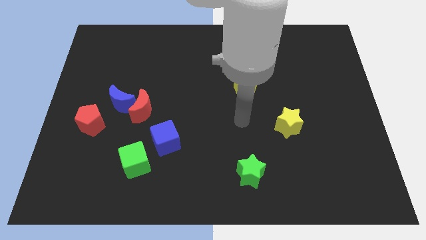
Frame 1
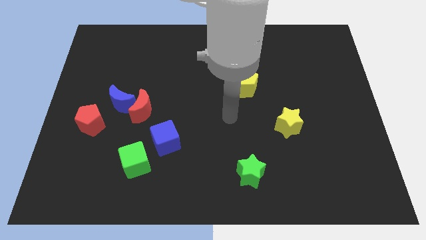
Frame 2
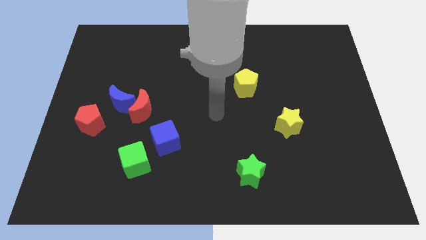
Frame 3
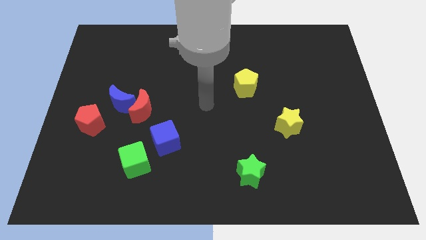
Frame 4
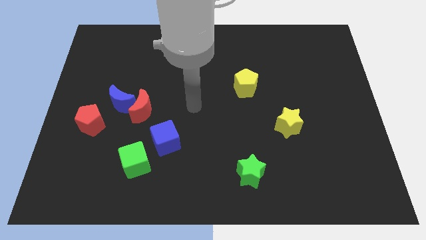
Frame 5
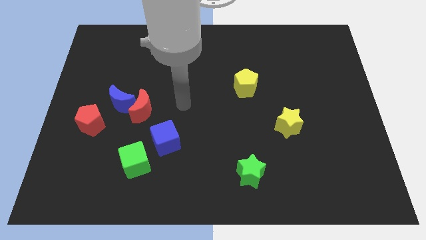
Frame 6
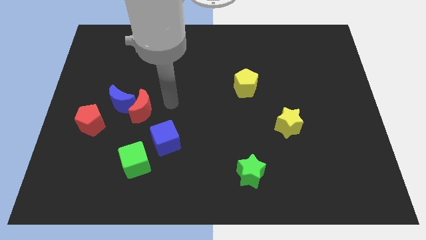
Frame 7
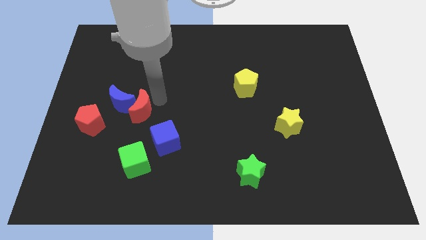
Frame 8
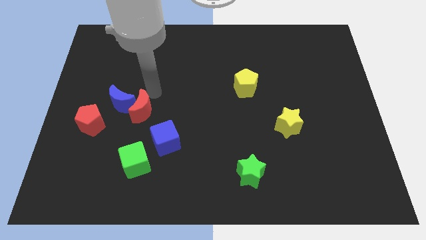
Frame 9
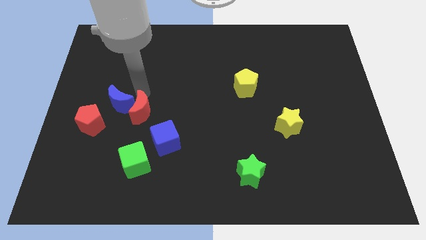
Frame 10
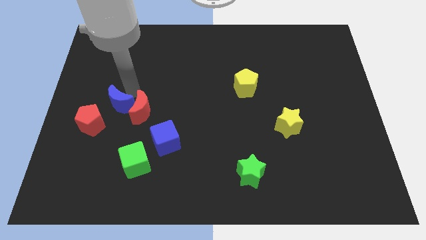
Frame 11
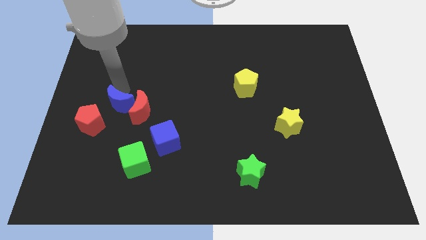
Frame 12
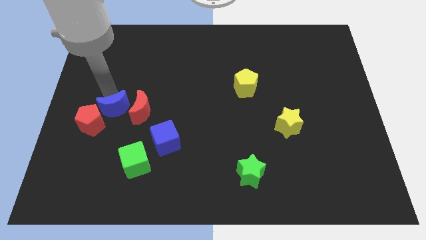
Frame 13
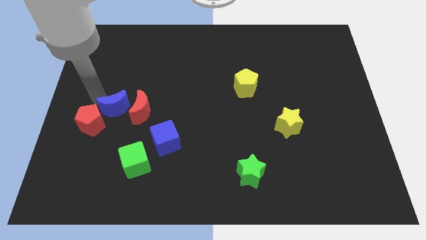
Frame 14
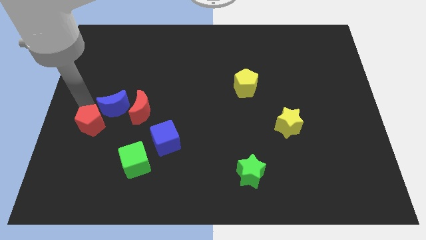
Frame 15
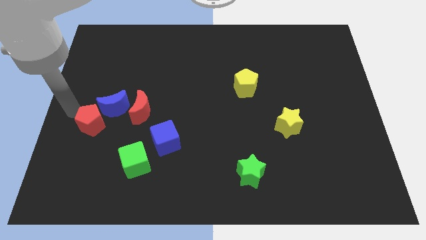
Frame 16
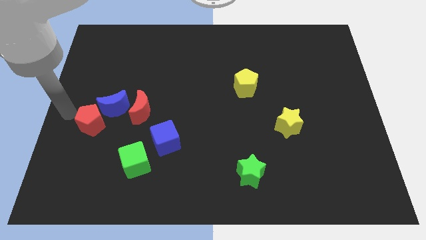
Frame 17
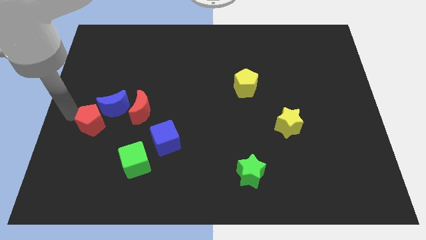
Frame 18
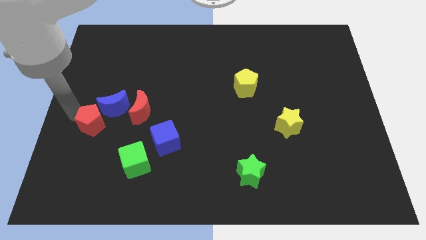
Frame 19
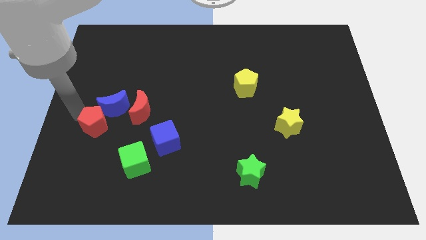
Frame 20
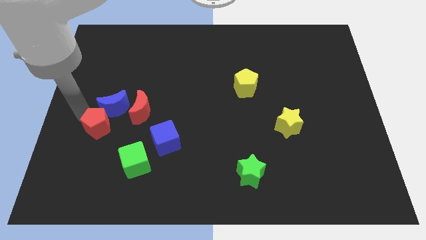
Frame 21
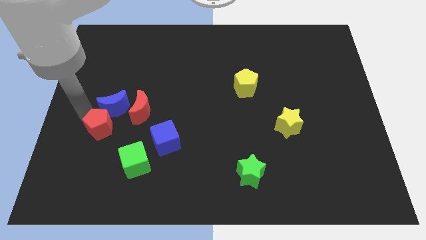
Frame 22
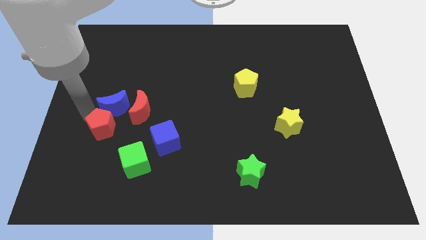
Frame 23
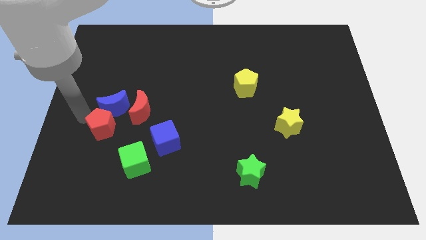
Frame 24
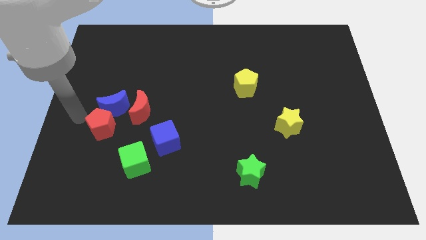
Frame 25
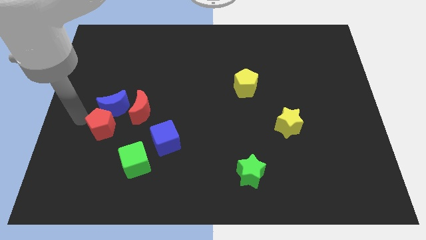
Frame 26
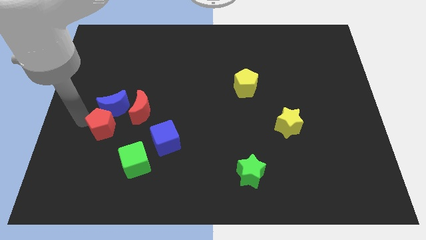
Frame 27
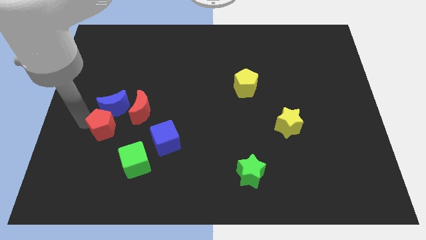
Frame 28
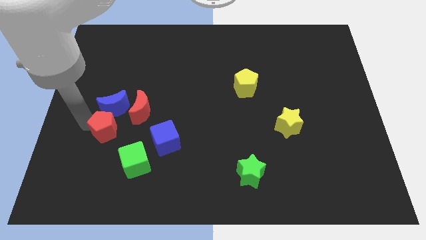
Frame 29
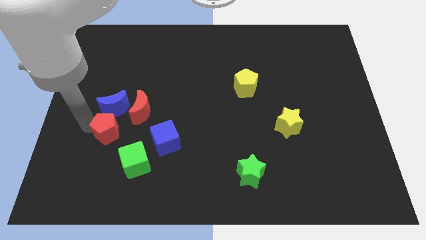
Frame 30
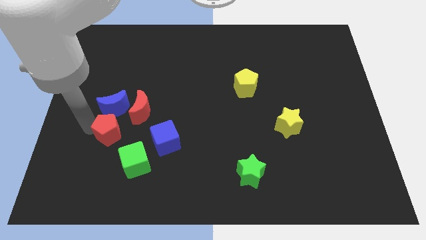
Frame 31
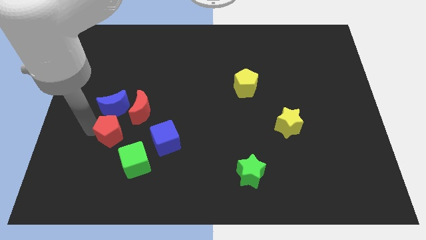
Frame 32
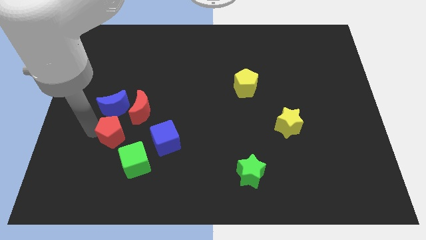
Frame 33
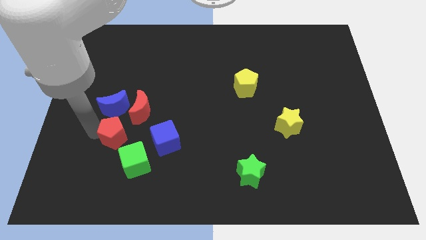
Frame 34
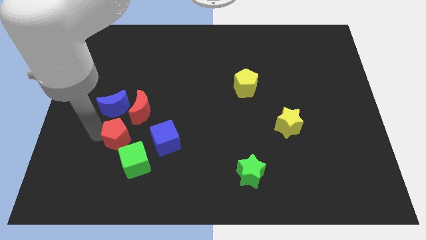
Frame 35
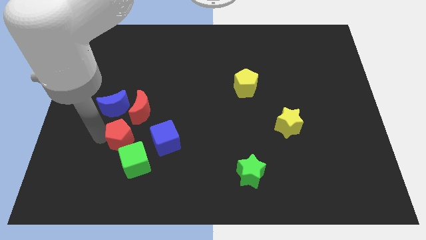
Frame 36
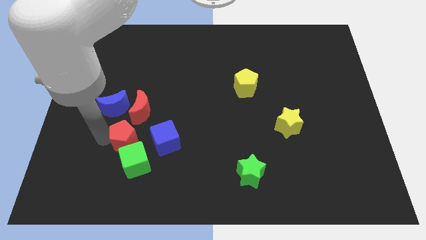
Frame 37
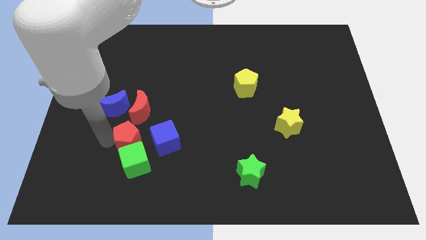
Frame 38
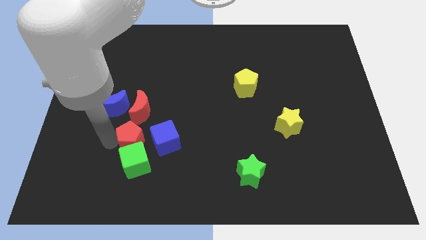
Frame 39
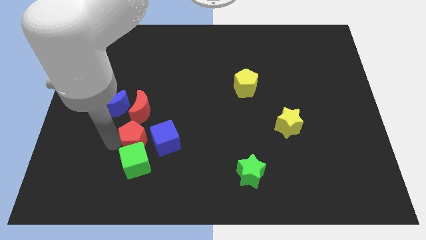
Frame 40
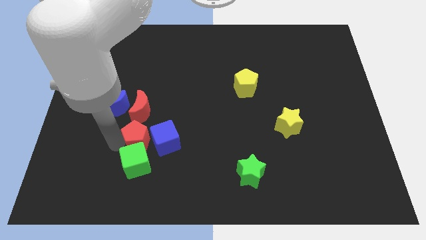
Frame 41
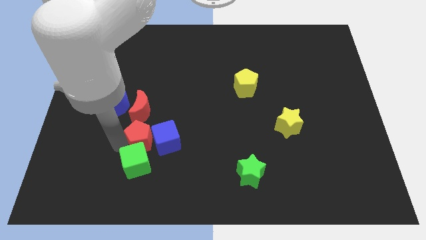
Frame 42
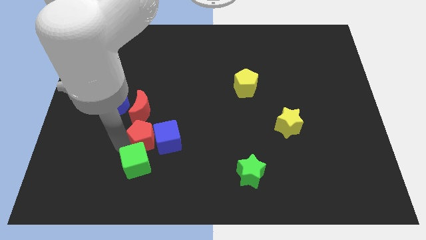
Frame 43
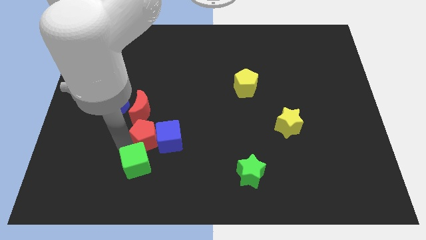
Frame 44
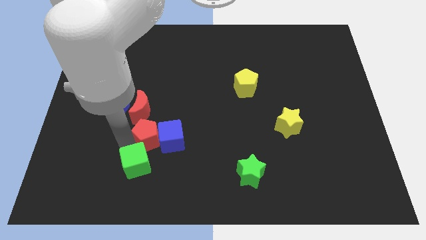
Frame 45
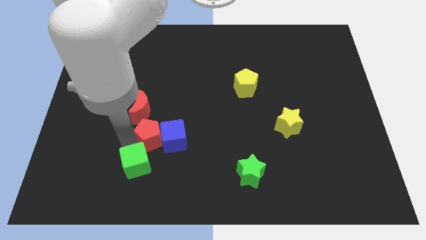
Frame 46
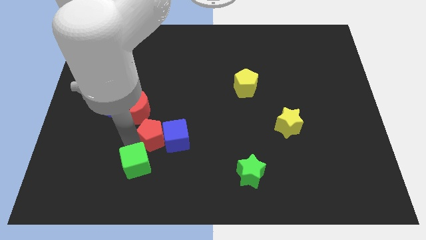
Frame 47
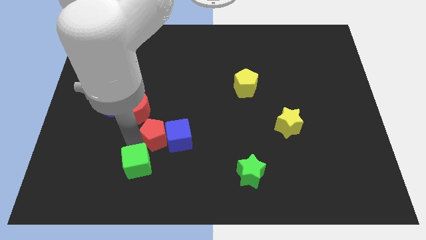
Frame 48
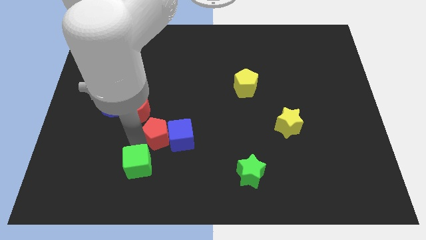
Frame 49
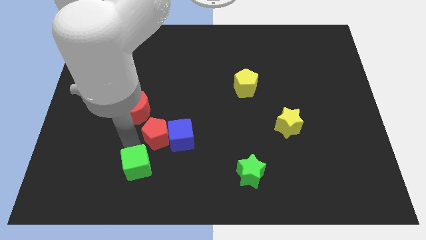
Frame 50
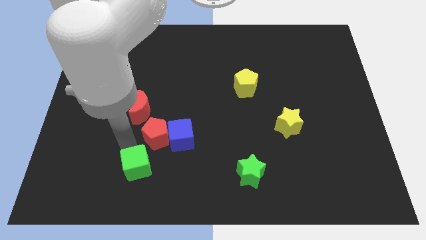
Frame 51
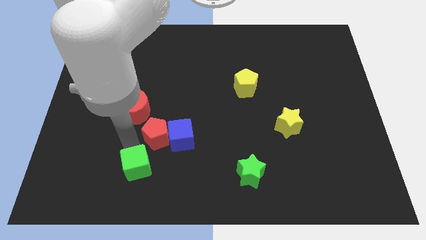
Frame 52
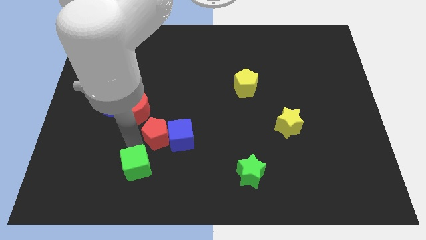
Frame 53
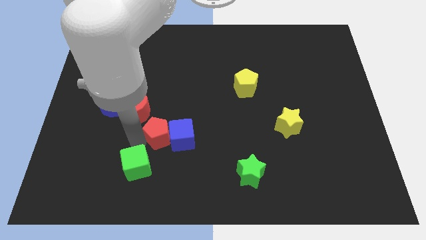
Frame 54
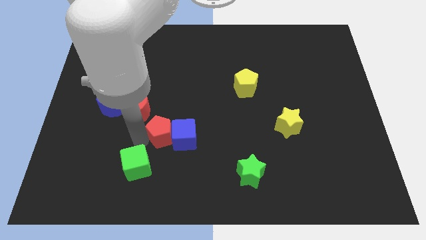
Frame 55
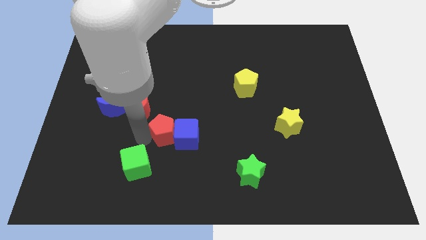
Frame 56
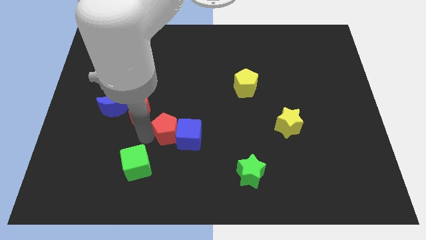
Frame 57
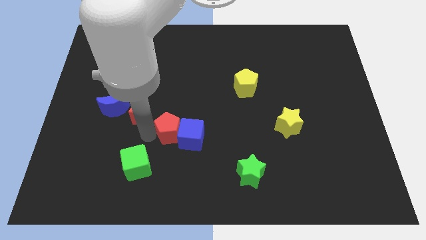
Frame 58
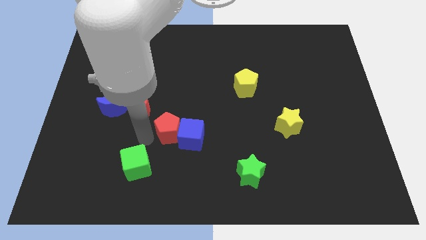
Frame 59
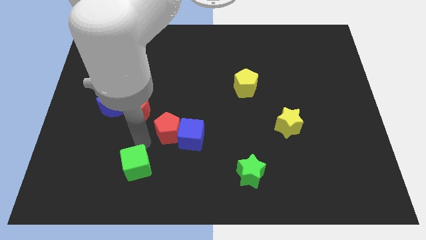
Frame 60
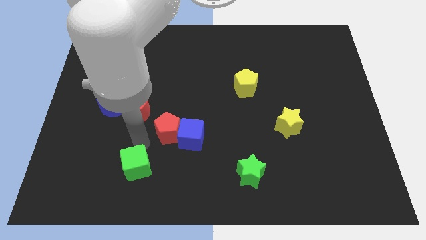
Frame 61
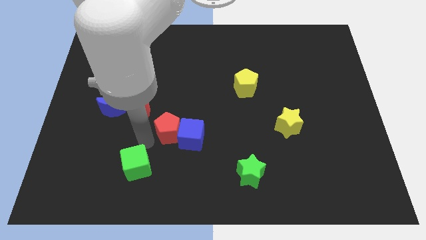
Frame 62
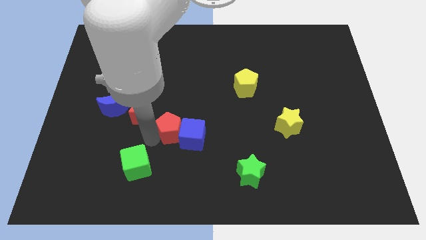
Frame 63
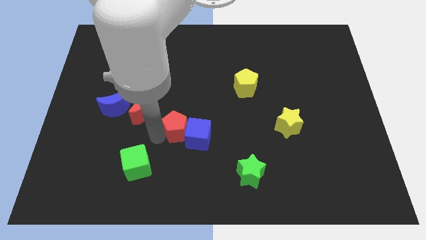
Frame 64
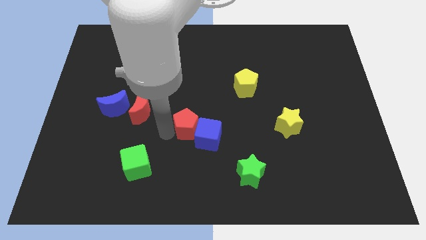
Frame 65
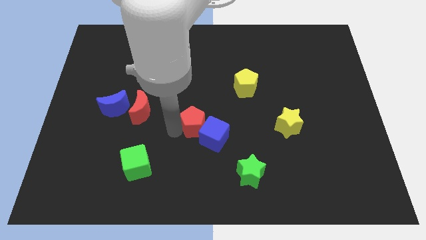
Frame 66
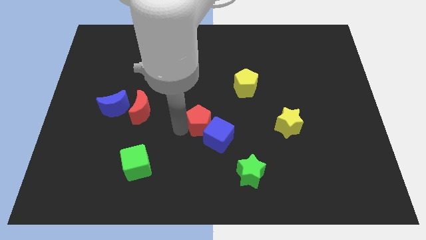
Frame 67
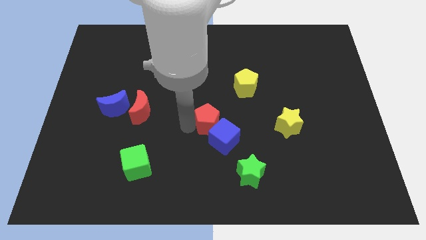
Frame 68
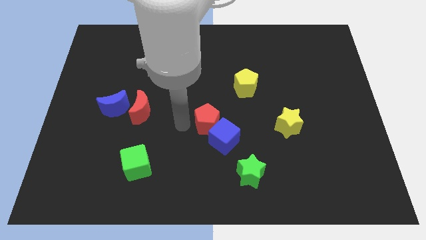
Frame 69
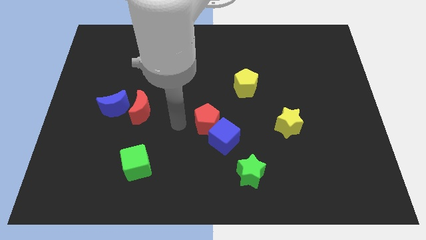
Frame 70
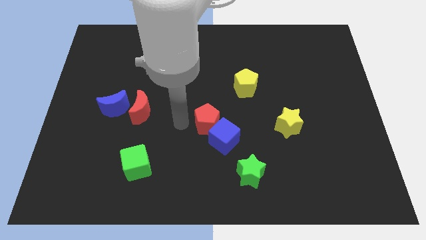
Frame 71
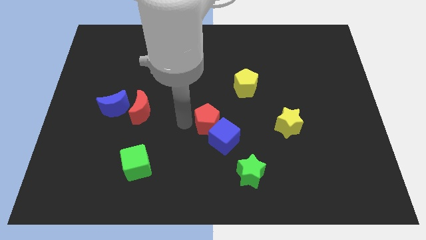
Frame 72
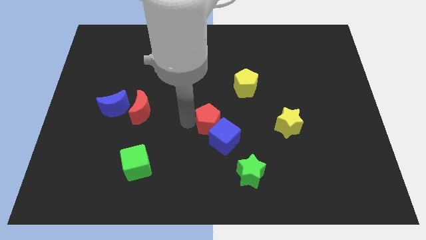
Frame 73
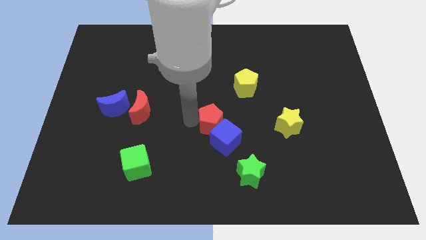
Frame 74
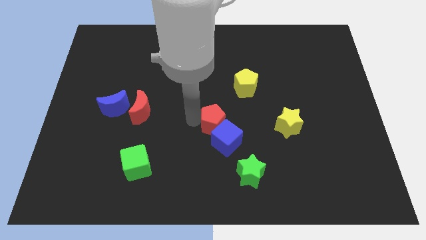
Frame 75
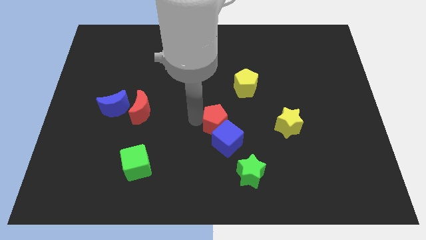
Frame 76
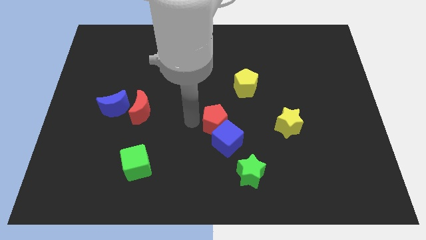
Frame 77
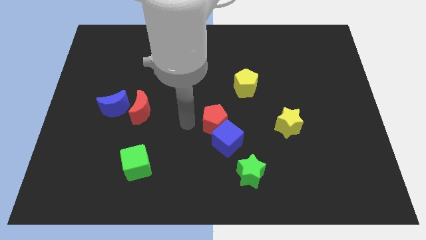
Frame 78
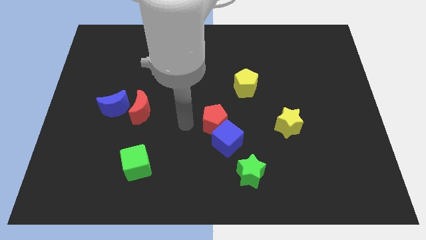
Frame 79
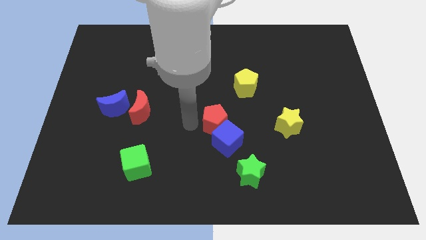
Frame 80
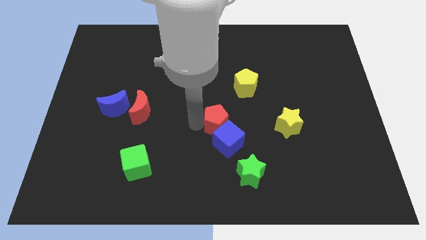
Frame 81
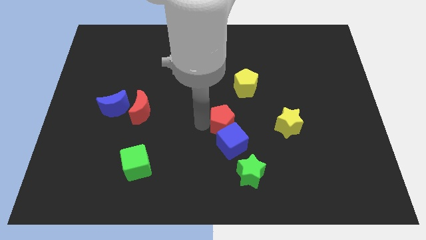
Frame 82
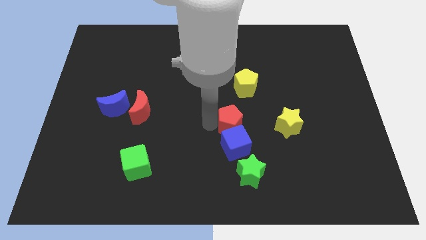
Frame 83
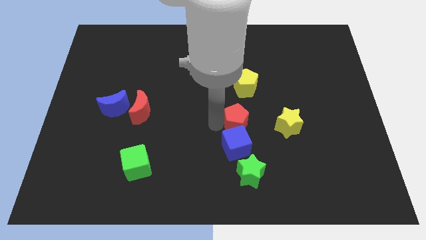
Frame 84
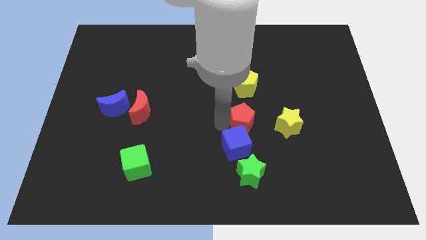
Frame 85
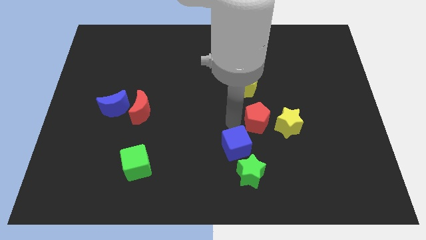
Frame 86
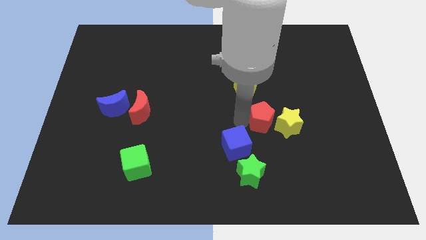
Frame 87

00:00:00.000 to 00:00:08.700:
slide the red pentagon towards the yellow star
